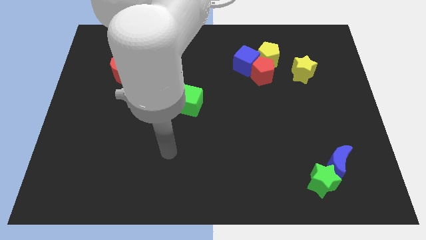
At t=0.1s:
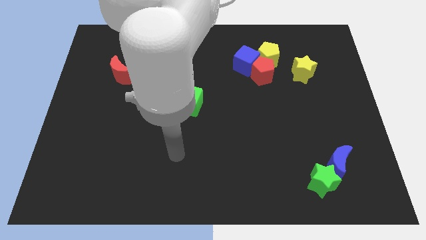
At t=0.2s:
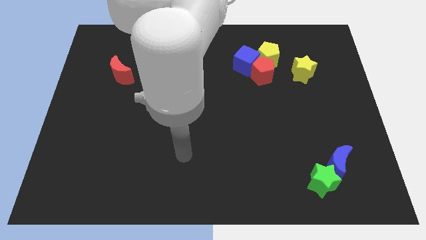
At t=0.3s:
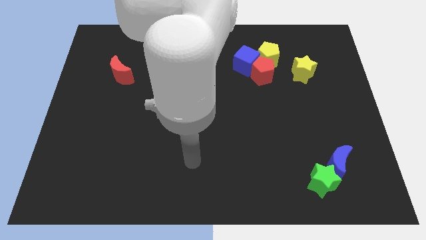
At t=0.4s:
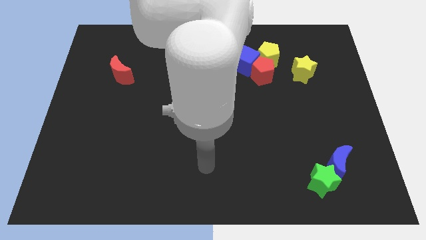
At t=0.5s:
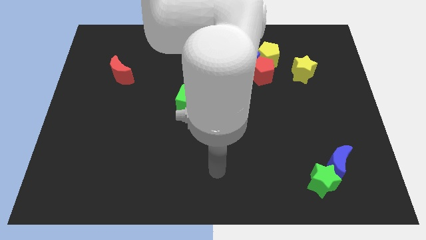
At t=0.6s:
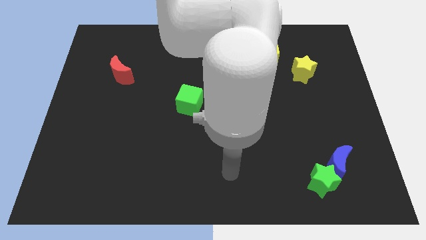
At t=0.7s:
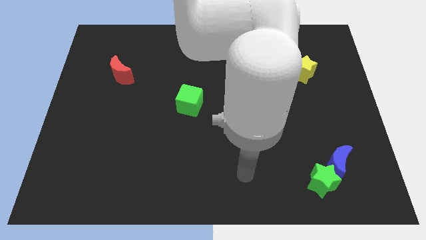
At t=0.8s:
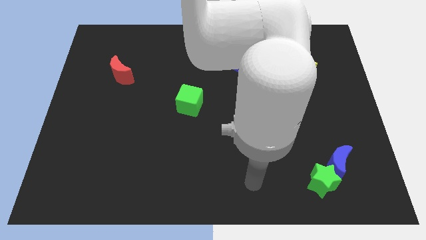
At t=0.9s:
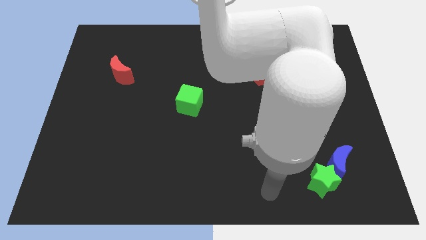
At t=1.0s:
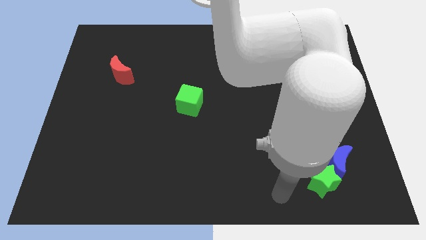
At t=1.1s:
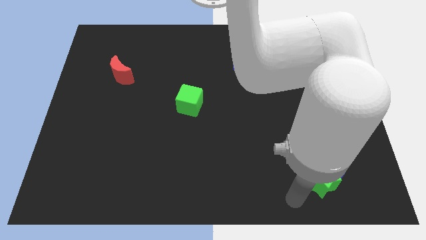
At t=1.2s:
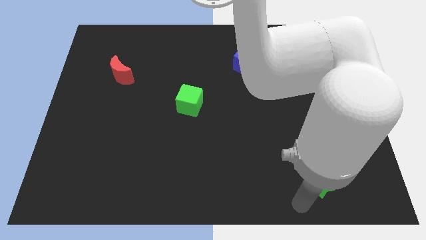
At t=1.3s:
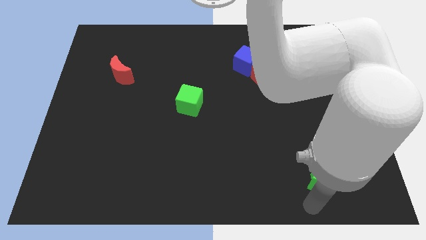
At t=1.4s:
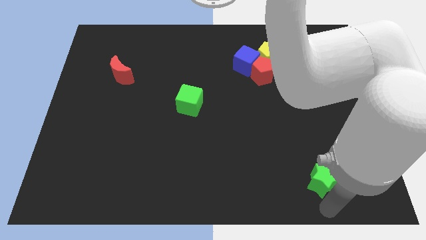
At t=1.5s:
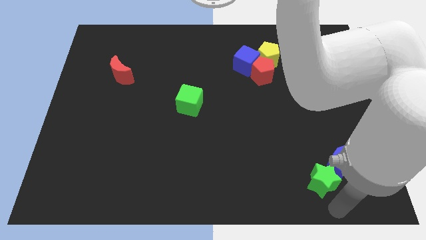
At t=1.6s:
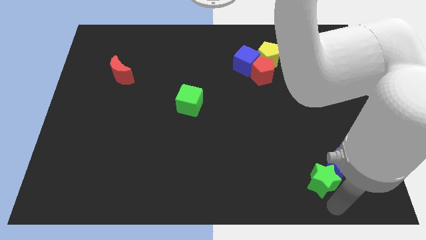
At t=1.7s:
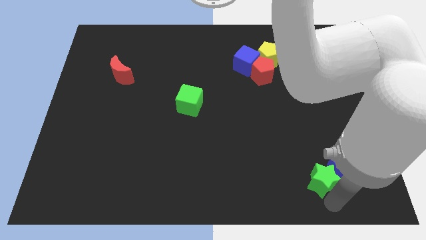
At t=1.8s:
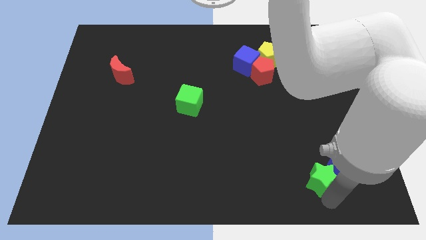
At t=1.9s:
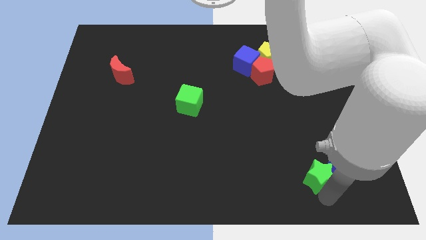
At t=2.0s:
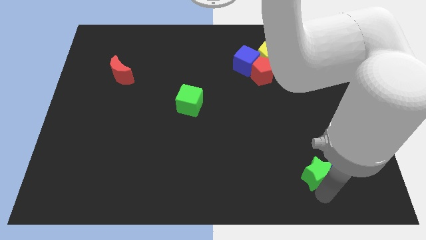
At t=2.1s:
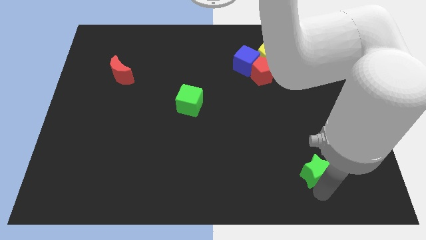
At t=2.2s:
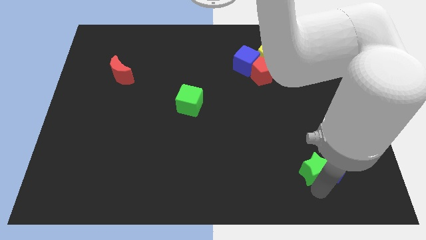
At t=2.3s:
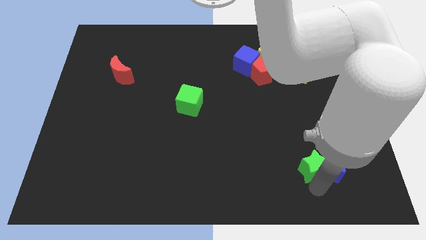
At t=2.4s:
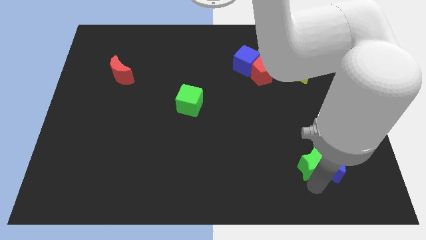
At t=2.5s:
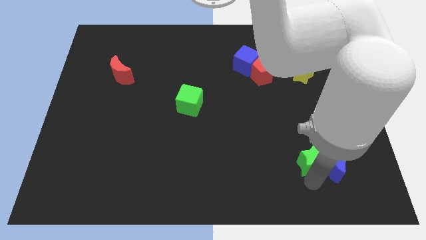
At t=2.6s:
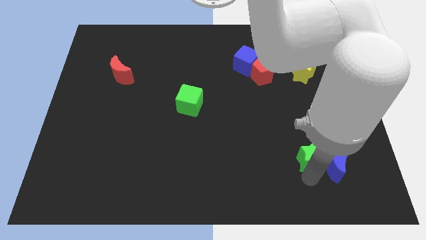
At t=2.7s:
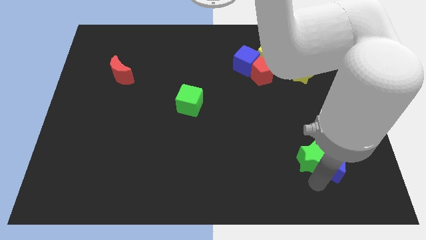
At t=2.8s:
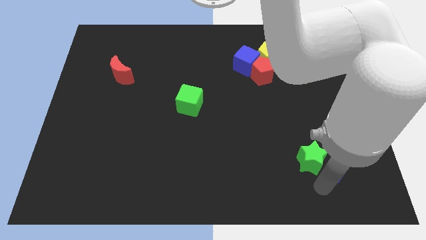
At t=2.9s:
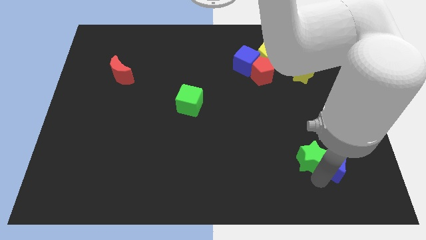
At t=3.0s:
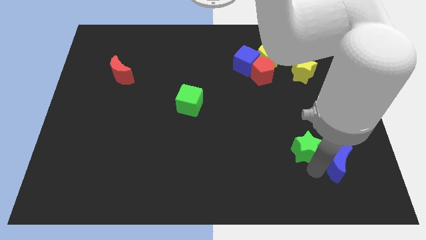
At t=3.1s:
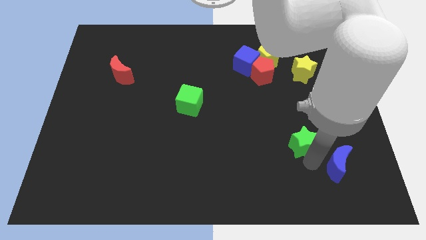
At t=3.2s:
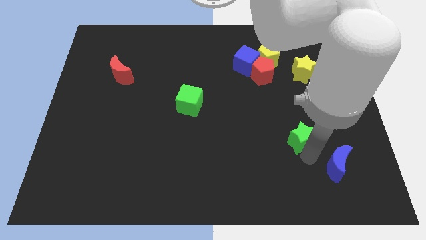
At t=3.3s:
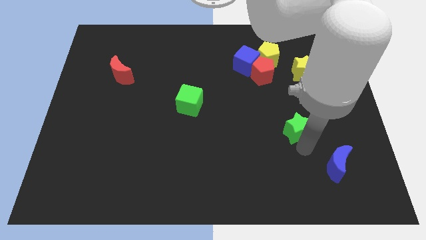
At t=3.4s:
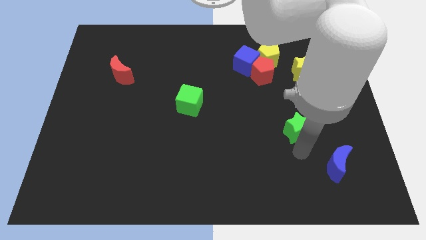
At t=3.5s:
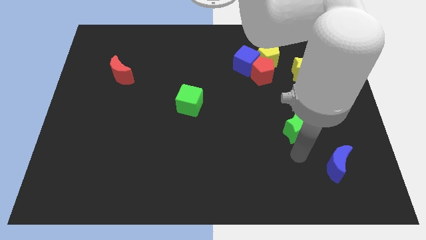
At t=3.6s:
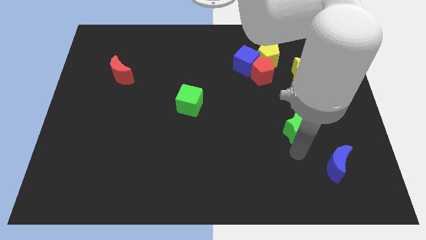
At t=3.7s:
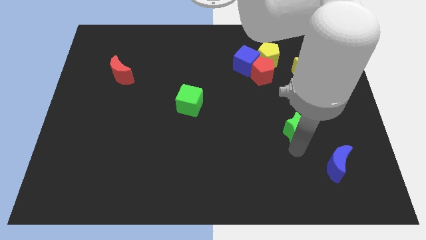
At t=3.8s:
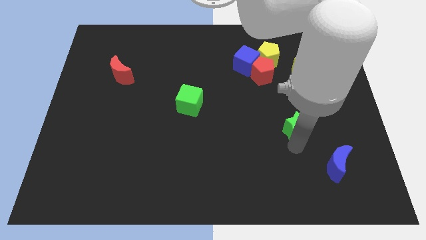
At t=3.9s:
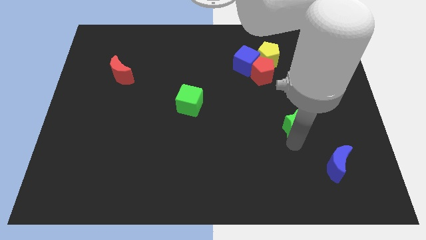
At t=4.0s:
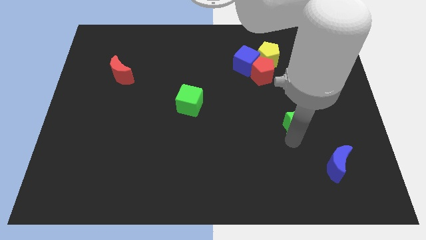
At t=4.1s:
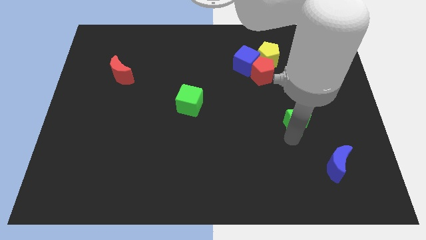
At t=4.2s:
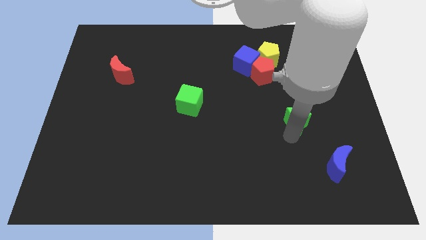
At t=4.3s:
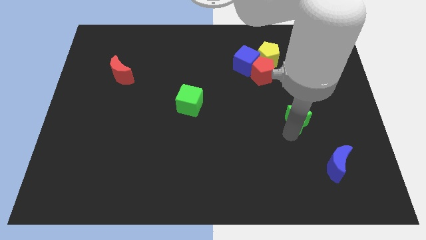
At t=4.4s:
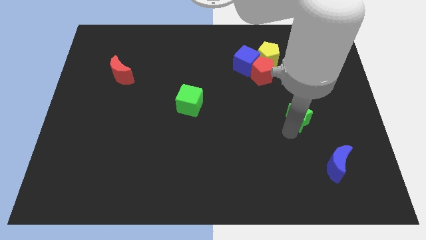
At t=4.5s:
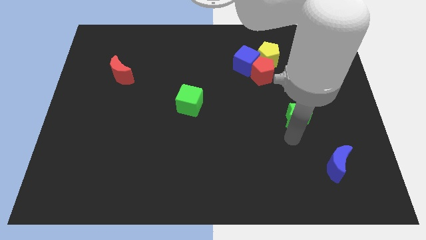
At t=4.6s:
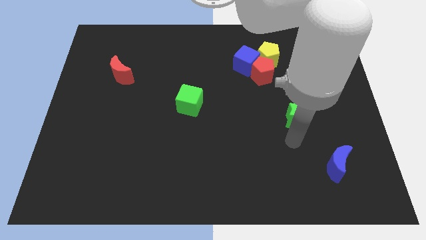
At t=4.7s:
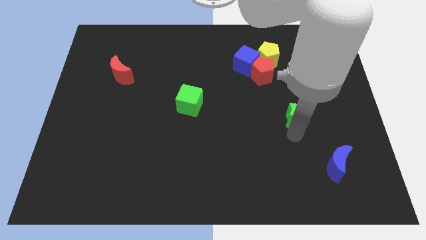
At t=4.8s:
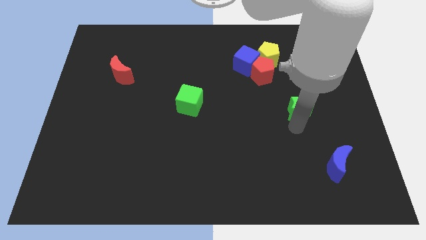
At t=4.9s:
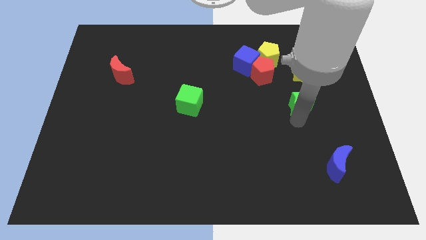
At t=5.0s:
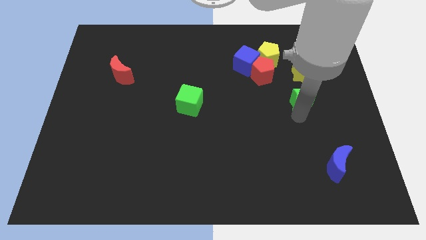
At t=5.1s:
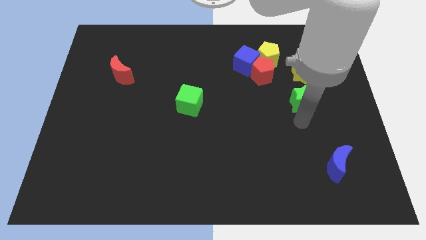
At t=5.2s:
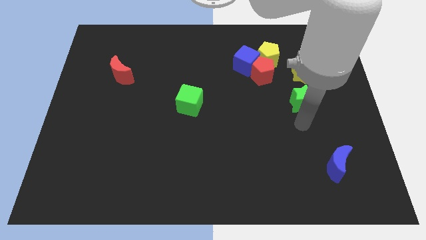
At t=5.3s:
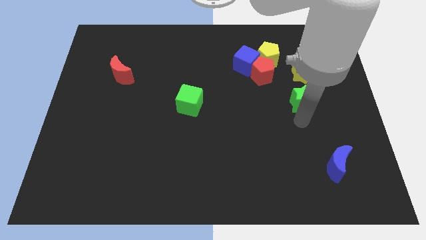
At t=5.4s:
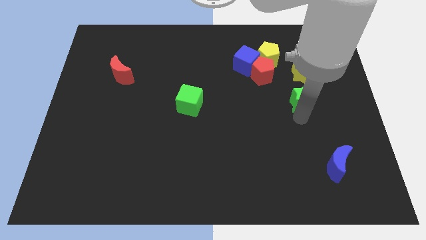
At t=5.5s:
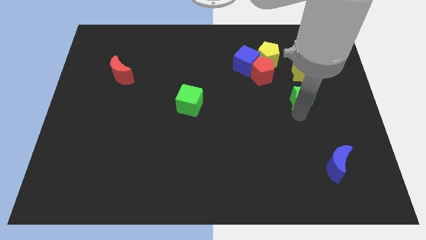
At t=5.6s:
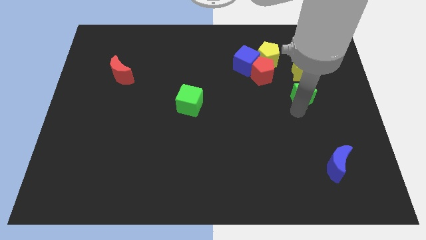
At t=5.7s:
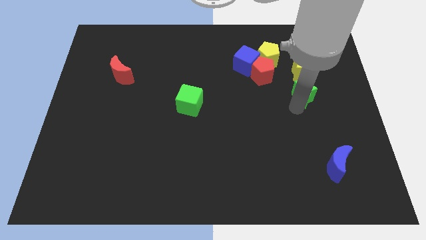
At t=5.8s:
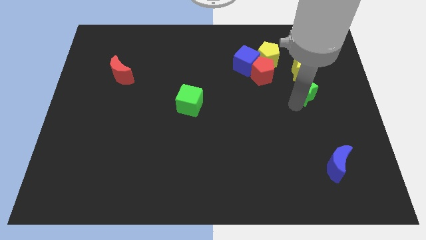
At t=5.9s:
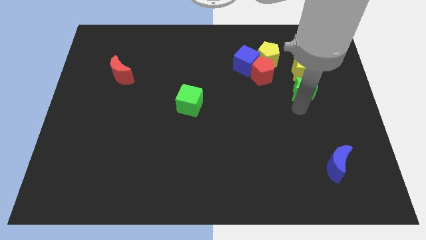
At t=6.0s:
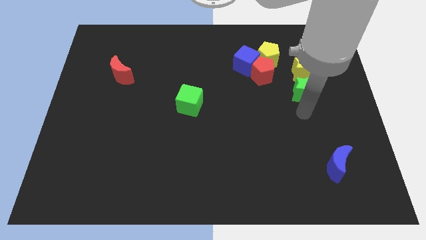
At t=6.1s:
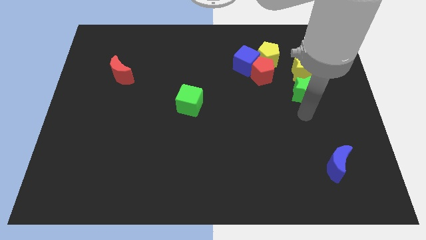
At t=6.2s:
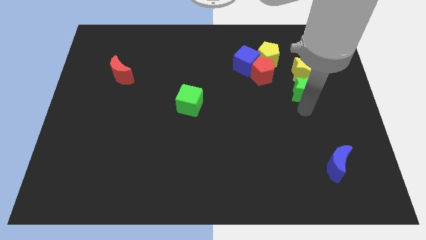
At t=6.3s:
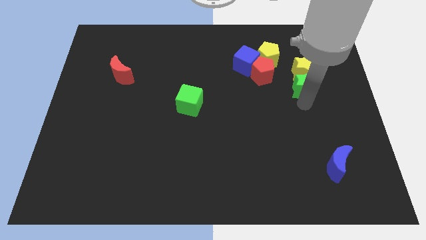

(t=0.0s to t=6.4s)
slide the green star next to the yellow star

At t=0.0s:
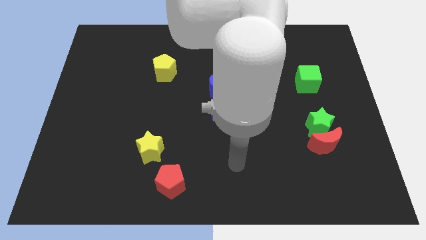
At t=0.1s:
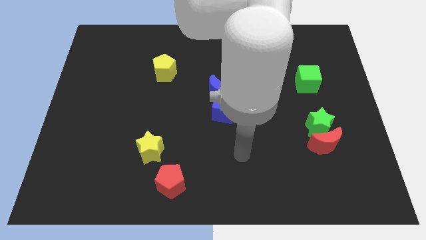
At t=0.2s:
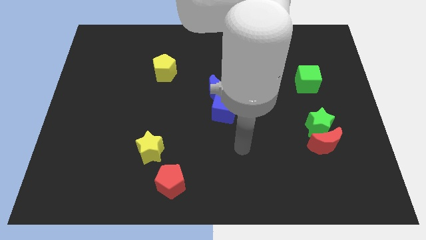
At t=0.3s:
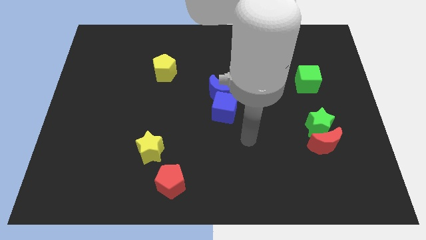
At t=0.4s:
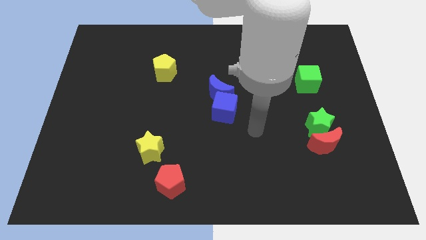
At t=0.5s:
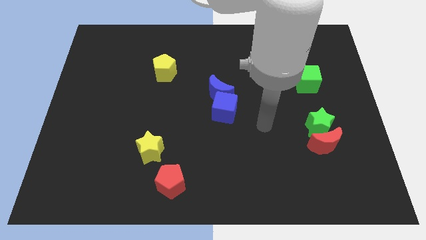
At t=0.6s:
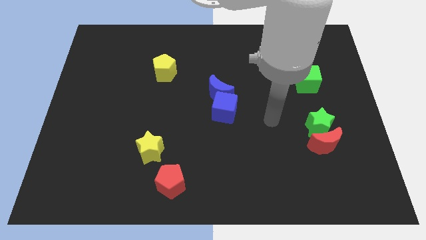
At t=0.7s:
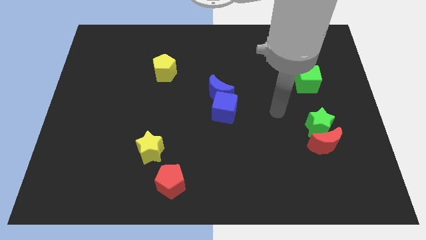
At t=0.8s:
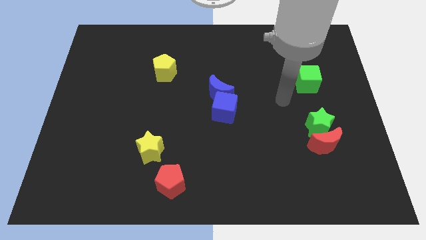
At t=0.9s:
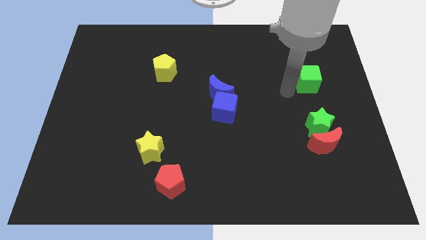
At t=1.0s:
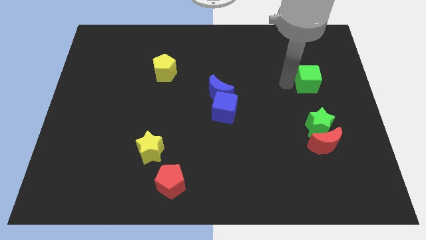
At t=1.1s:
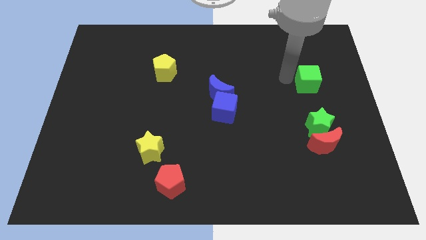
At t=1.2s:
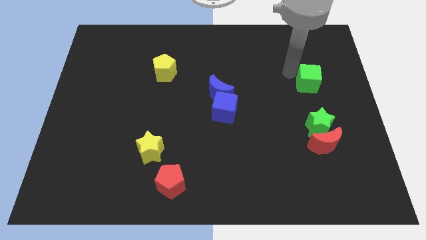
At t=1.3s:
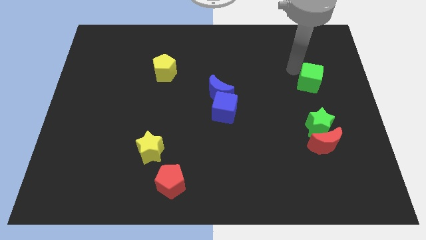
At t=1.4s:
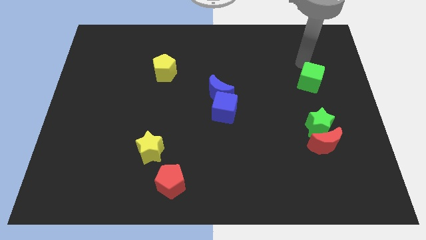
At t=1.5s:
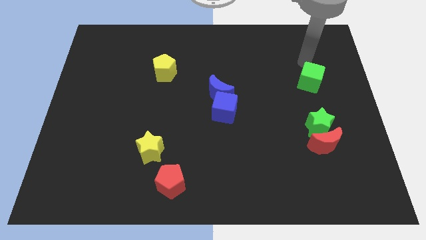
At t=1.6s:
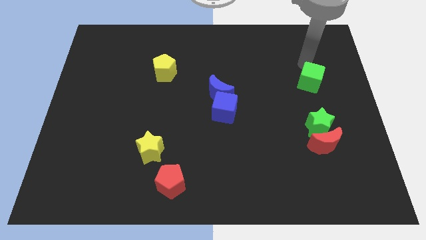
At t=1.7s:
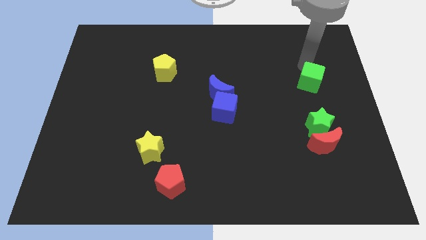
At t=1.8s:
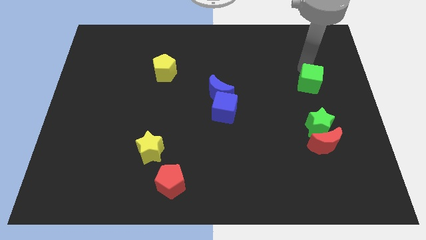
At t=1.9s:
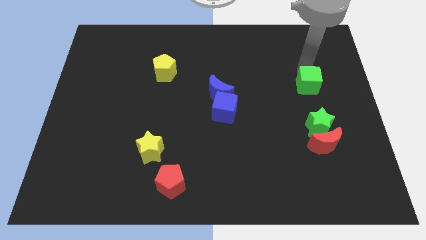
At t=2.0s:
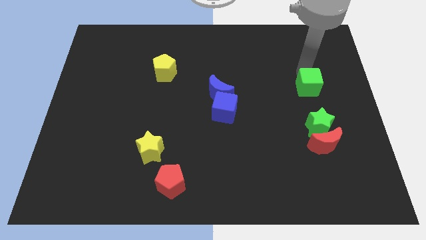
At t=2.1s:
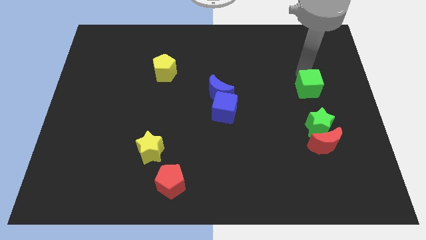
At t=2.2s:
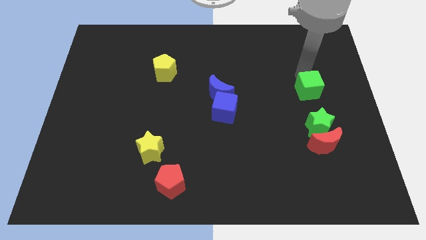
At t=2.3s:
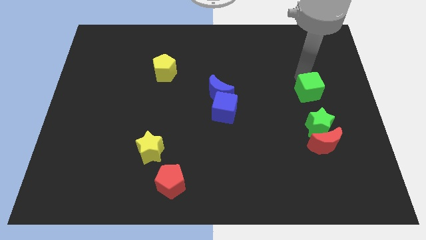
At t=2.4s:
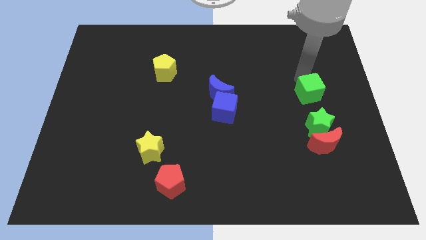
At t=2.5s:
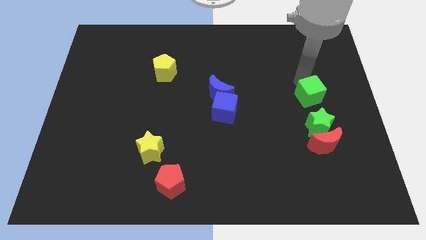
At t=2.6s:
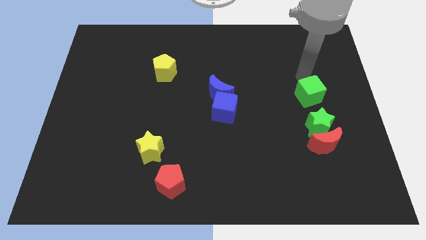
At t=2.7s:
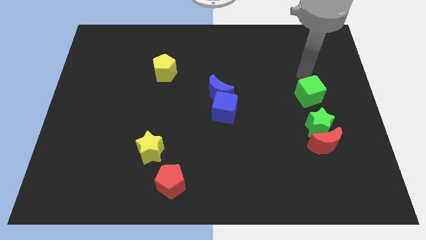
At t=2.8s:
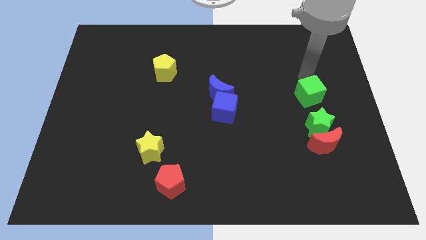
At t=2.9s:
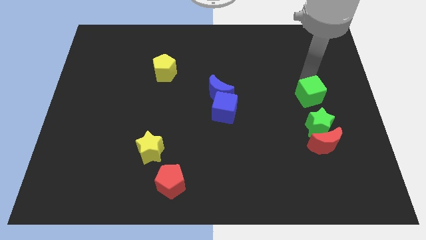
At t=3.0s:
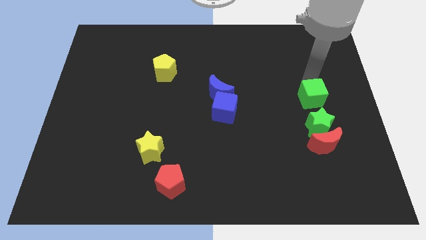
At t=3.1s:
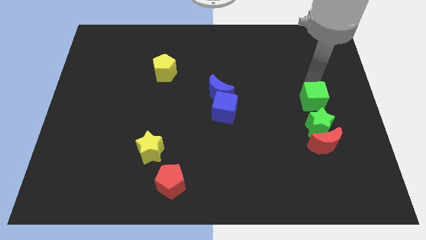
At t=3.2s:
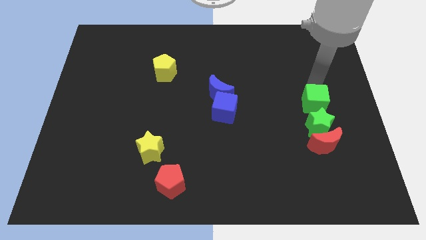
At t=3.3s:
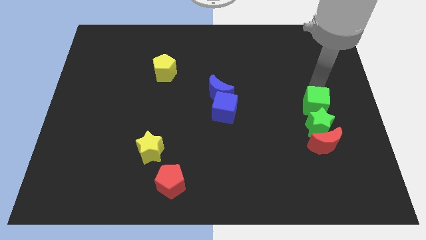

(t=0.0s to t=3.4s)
move the green cube close to the green star
